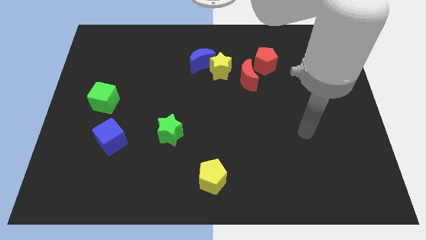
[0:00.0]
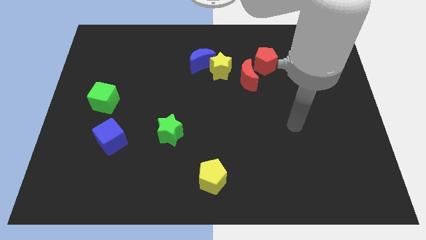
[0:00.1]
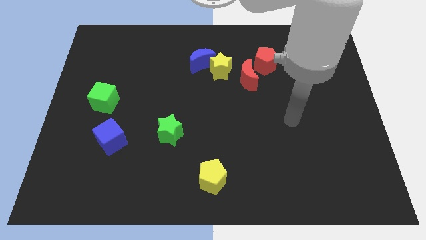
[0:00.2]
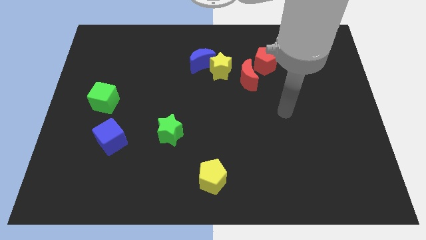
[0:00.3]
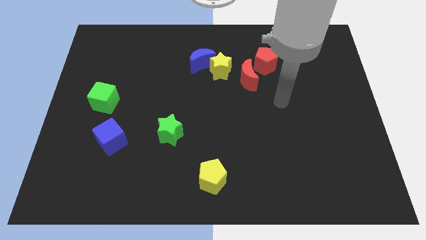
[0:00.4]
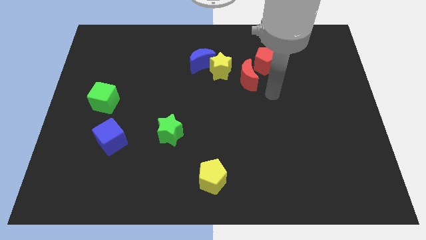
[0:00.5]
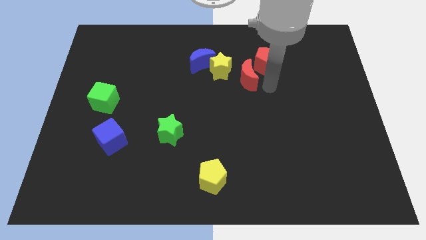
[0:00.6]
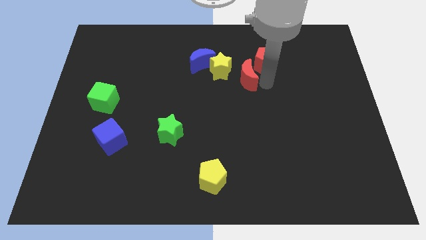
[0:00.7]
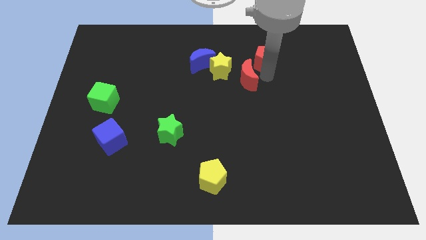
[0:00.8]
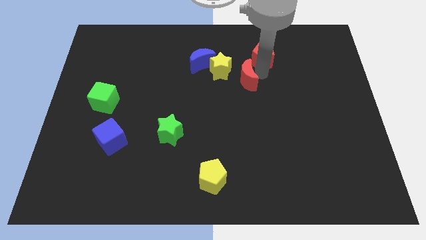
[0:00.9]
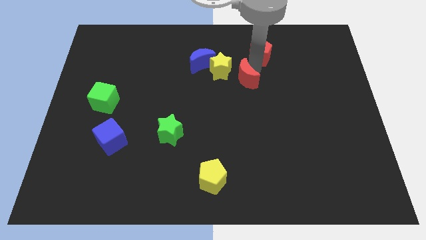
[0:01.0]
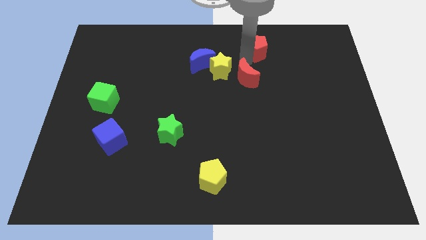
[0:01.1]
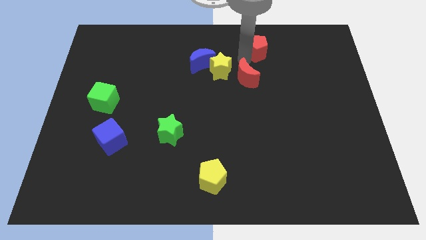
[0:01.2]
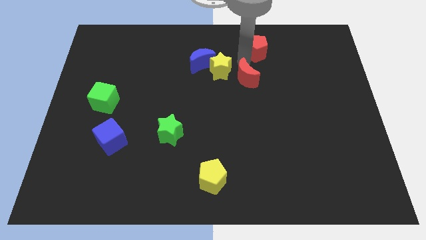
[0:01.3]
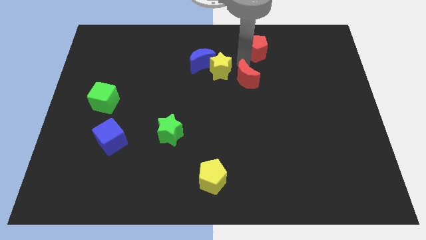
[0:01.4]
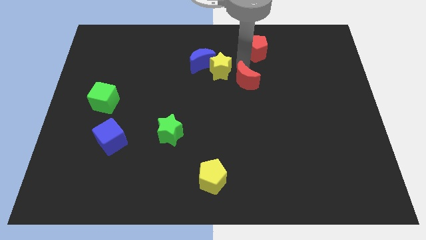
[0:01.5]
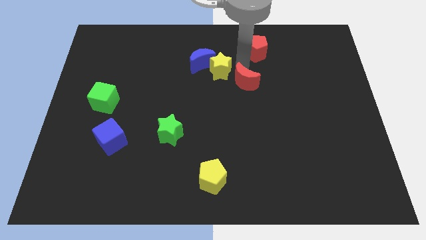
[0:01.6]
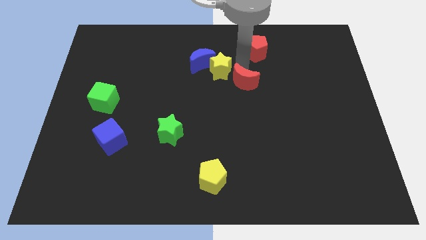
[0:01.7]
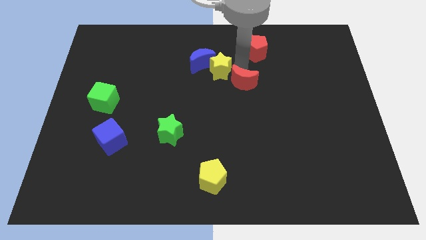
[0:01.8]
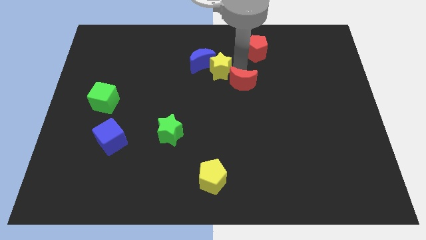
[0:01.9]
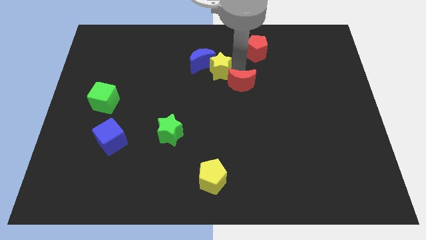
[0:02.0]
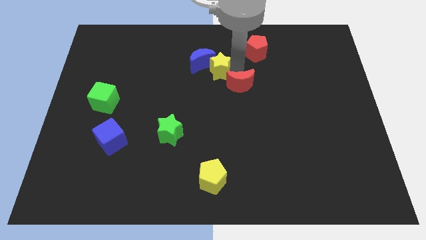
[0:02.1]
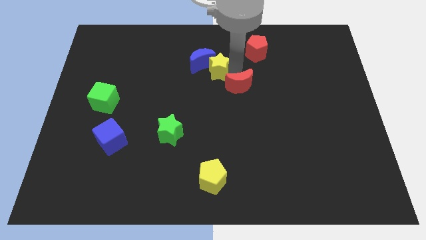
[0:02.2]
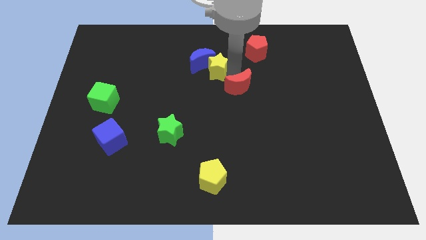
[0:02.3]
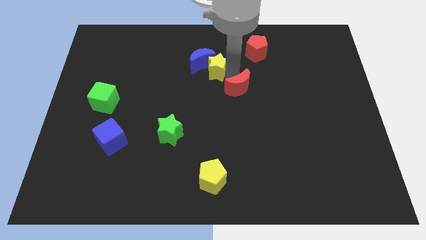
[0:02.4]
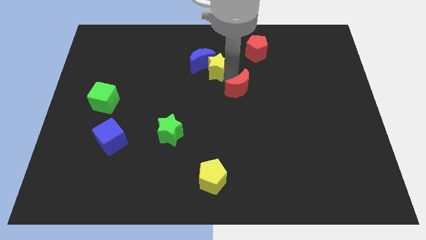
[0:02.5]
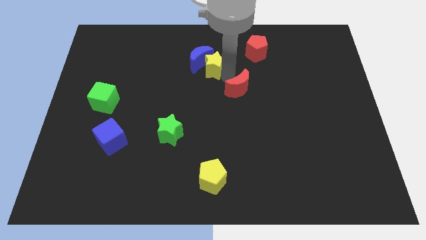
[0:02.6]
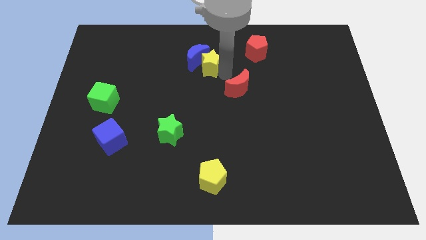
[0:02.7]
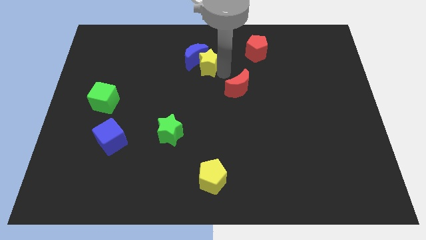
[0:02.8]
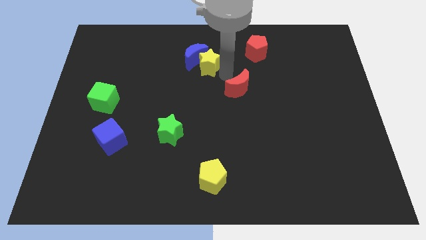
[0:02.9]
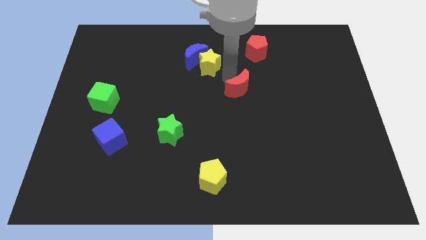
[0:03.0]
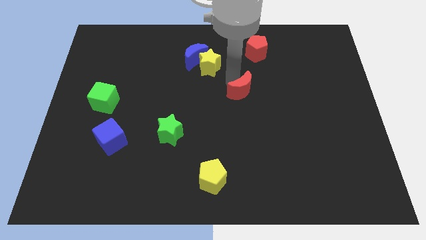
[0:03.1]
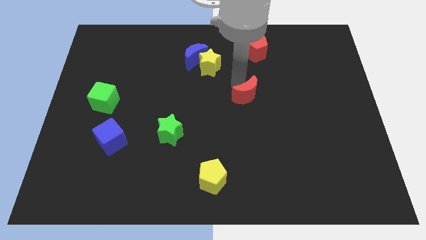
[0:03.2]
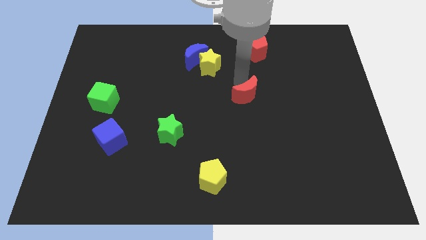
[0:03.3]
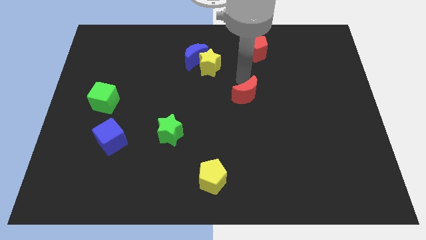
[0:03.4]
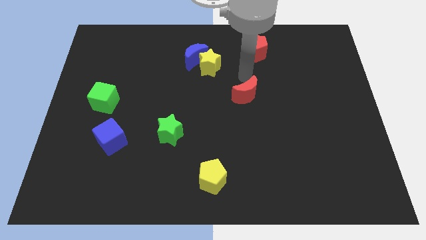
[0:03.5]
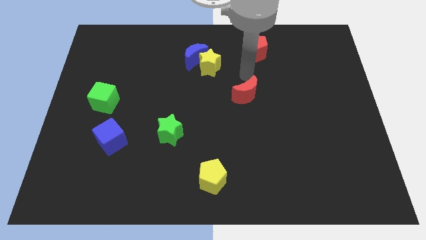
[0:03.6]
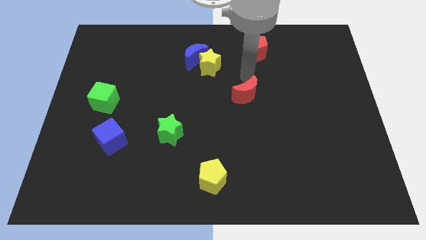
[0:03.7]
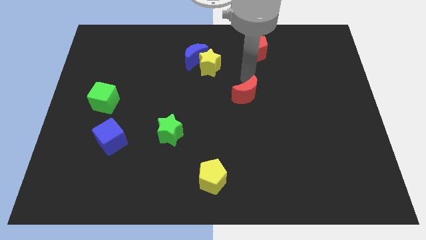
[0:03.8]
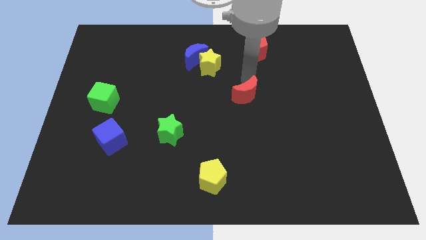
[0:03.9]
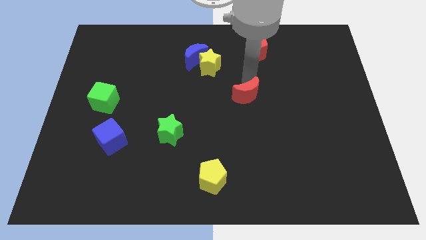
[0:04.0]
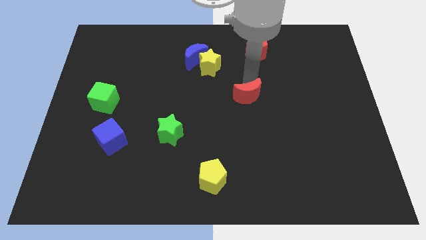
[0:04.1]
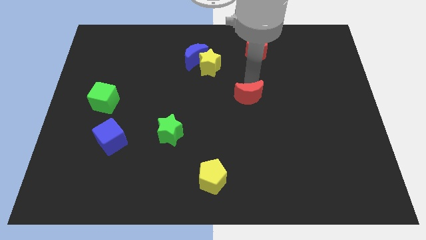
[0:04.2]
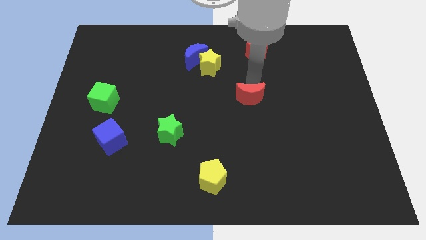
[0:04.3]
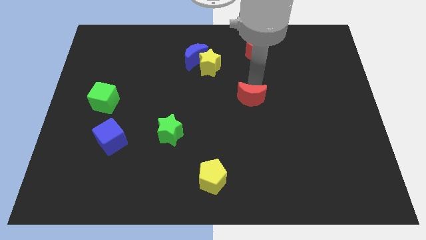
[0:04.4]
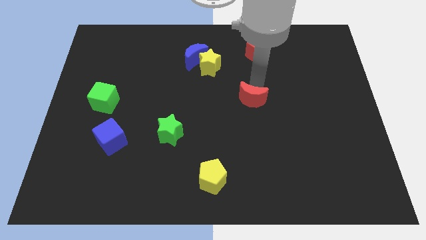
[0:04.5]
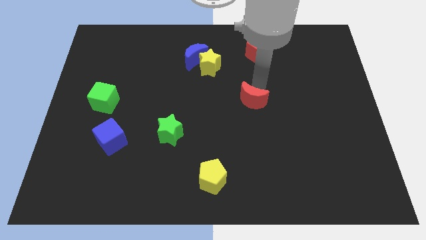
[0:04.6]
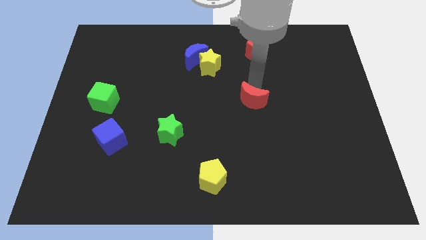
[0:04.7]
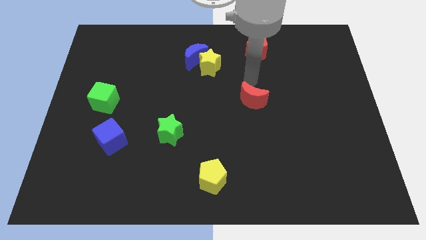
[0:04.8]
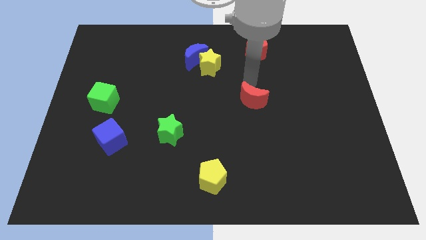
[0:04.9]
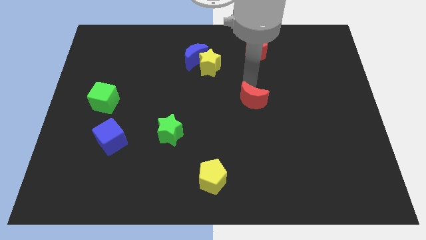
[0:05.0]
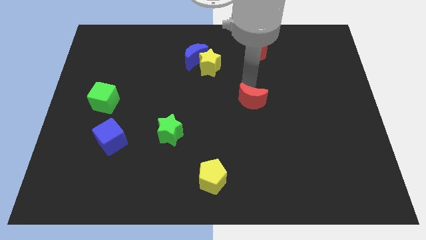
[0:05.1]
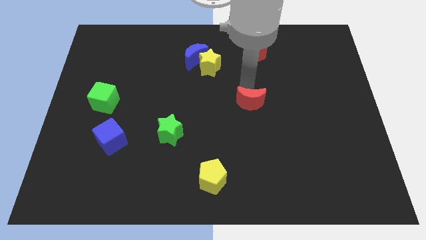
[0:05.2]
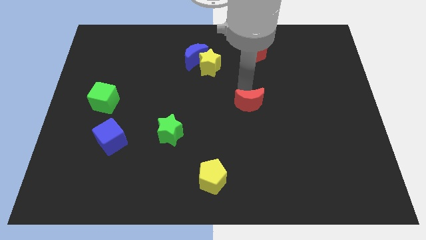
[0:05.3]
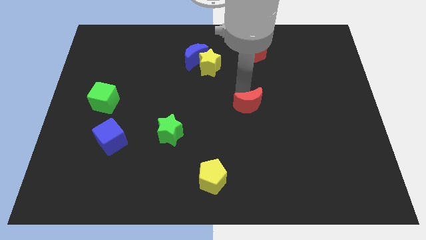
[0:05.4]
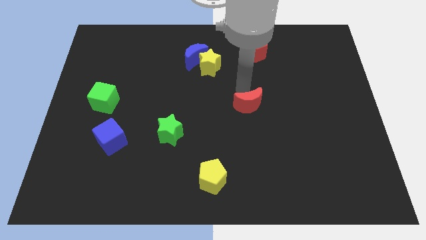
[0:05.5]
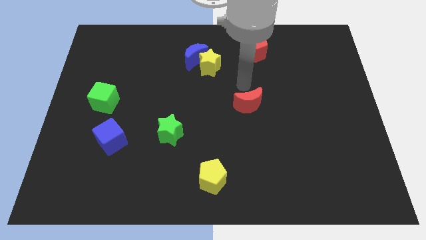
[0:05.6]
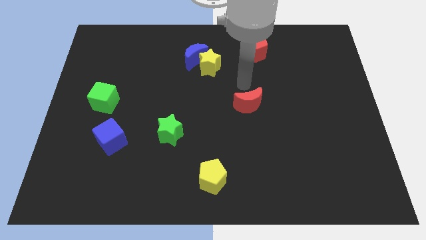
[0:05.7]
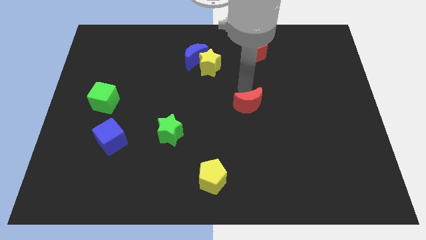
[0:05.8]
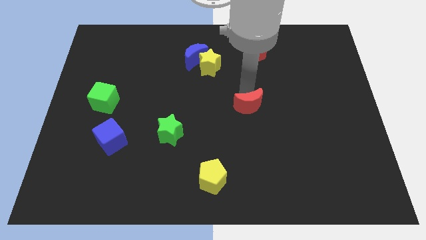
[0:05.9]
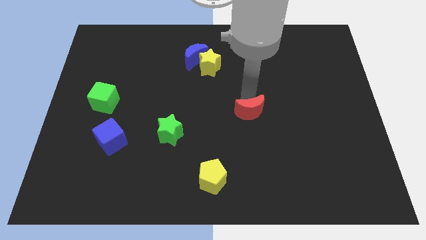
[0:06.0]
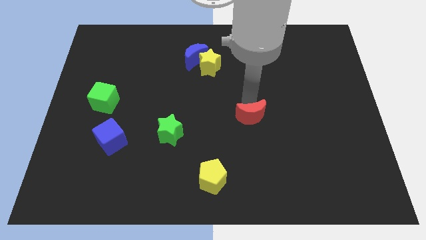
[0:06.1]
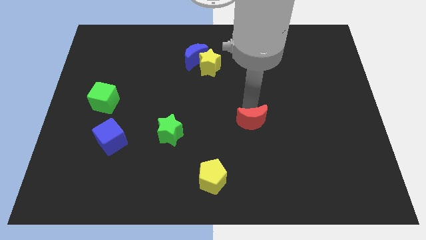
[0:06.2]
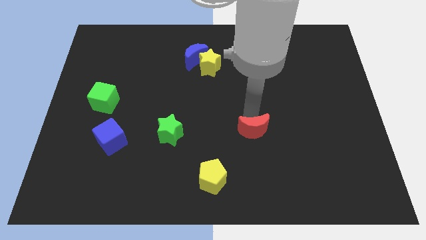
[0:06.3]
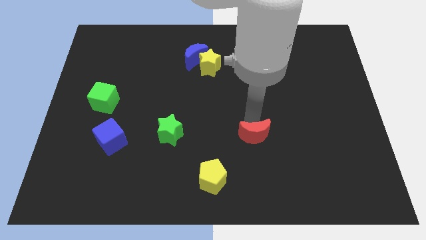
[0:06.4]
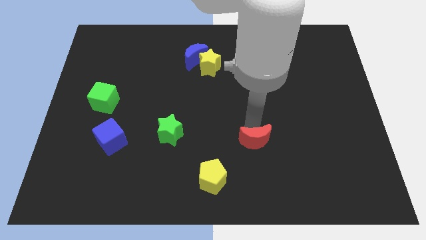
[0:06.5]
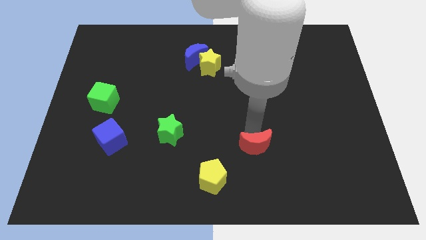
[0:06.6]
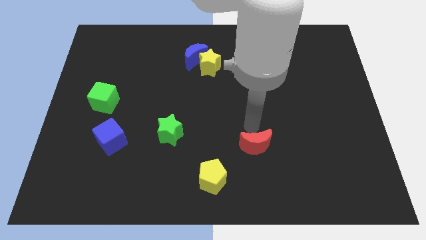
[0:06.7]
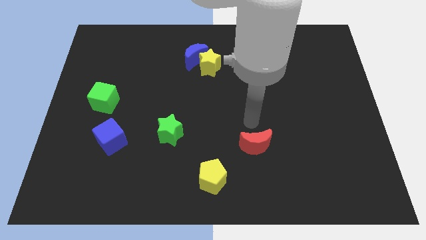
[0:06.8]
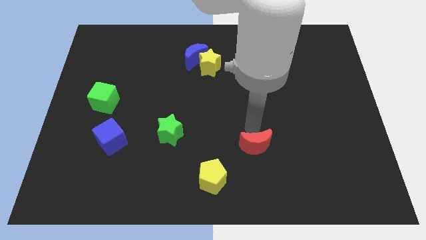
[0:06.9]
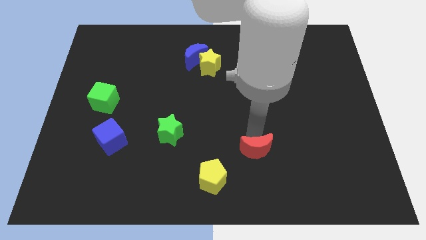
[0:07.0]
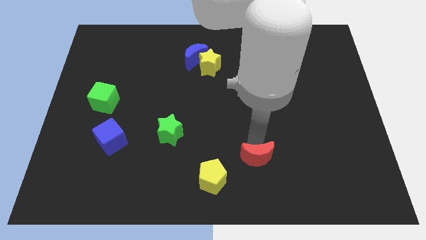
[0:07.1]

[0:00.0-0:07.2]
put the red moon to the right of the yellow pentagon
